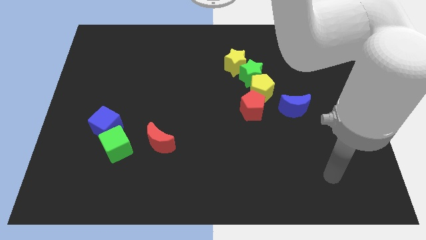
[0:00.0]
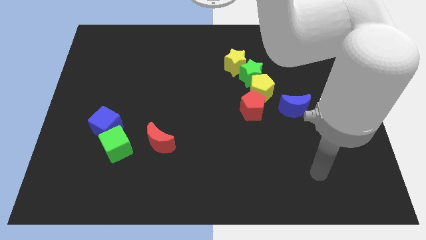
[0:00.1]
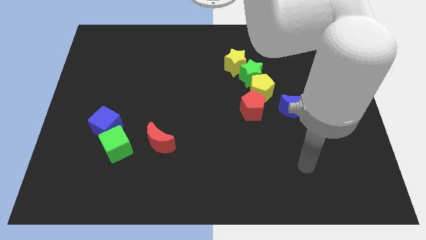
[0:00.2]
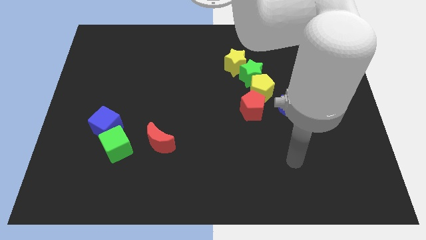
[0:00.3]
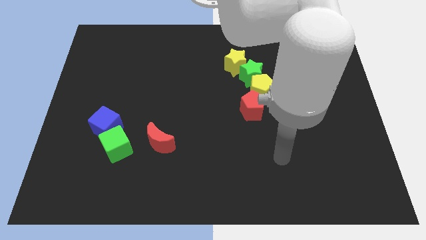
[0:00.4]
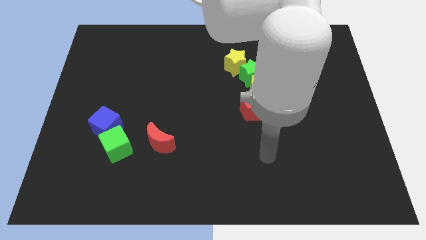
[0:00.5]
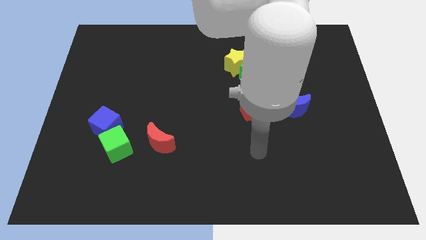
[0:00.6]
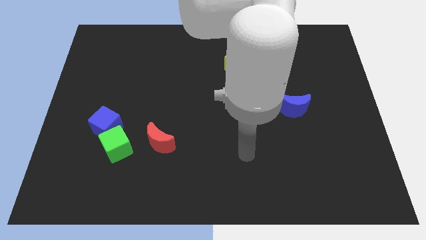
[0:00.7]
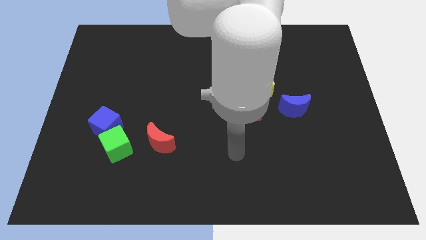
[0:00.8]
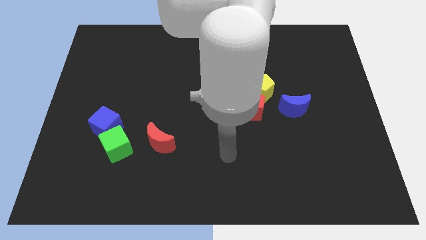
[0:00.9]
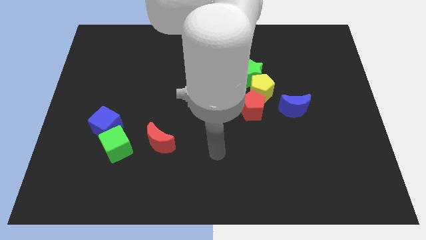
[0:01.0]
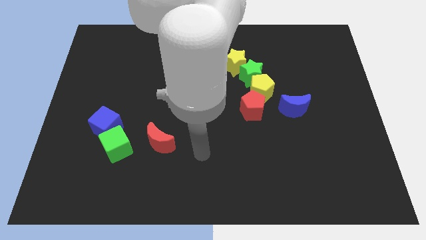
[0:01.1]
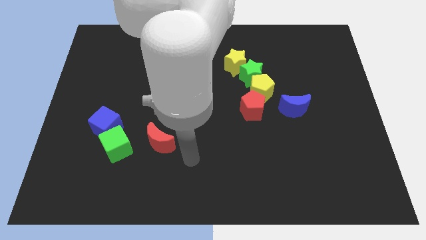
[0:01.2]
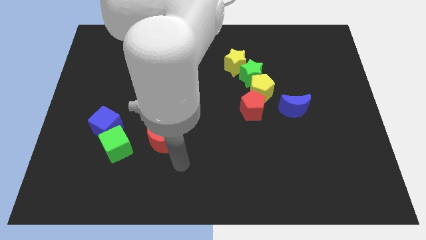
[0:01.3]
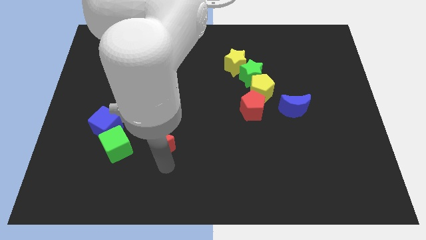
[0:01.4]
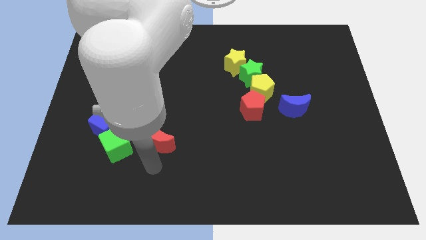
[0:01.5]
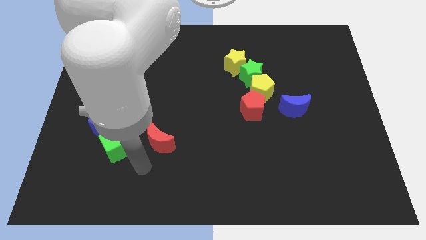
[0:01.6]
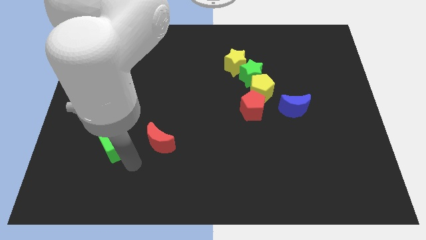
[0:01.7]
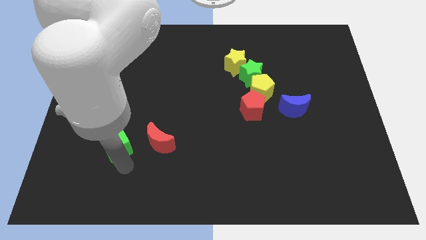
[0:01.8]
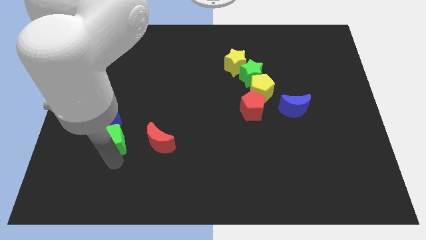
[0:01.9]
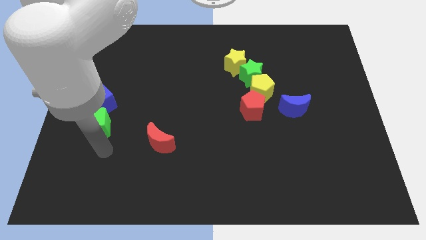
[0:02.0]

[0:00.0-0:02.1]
slightly push the blue cube up

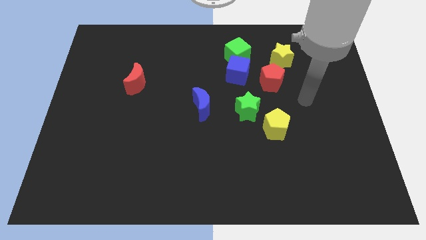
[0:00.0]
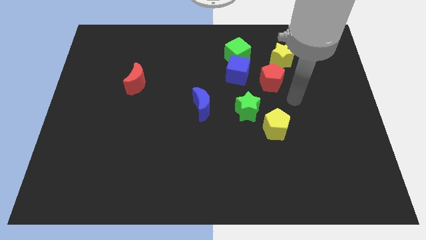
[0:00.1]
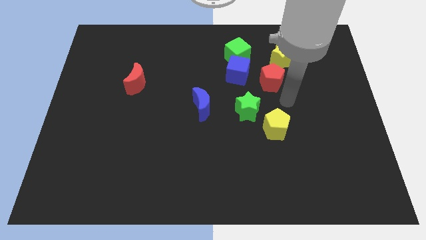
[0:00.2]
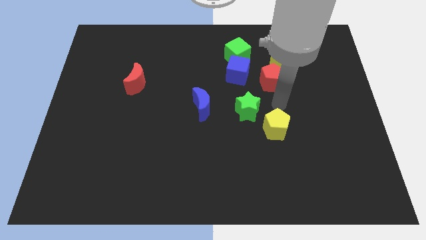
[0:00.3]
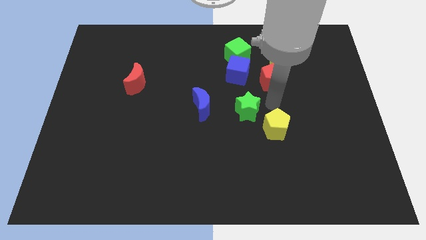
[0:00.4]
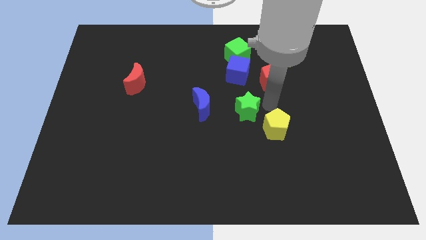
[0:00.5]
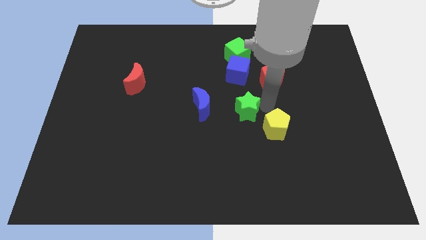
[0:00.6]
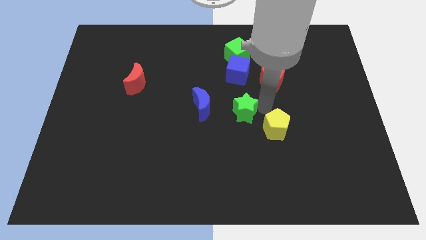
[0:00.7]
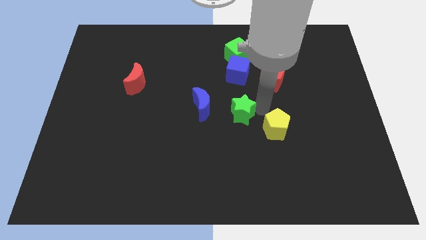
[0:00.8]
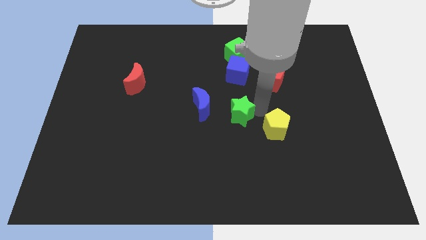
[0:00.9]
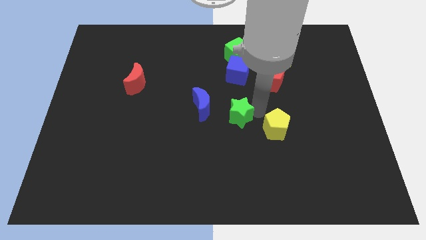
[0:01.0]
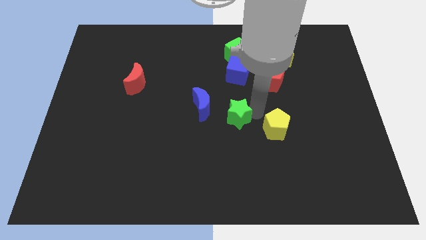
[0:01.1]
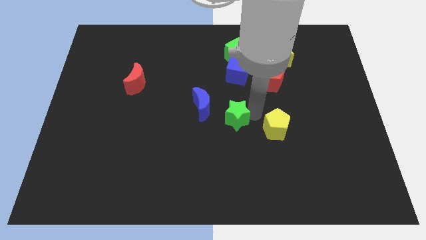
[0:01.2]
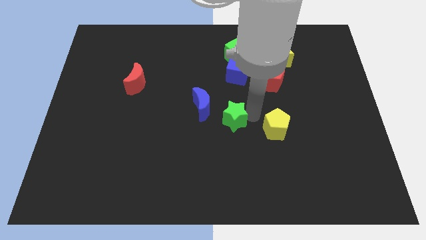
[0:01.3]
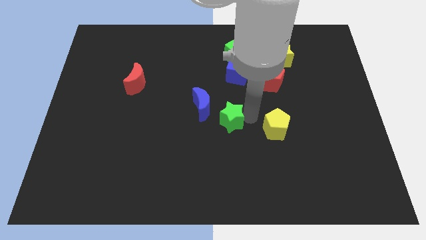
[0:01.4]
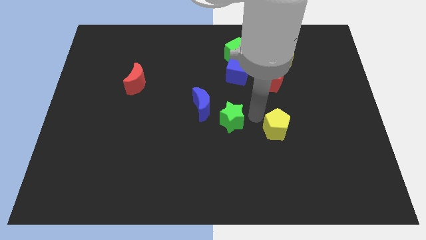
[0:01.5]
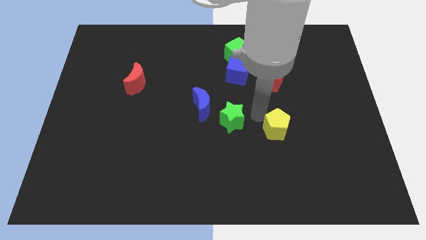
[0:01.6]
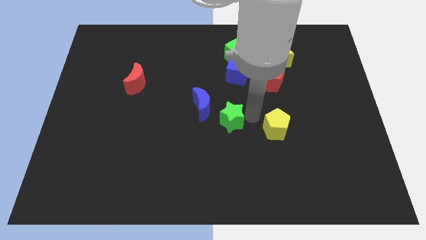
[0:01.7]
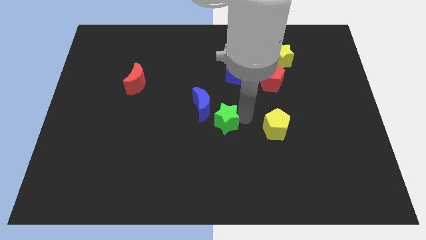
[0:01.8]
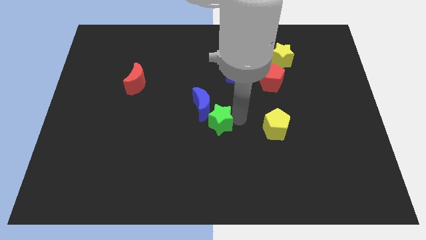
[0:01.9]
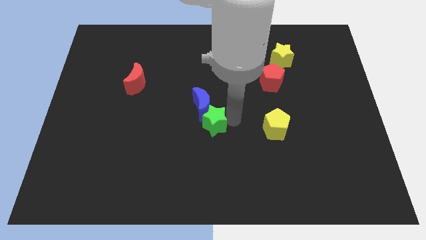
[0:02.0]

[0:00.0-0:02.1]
move the green star to the left a little

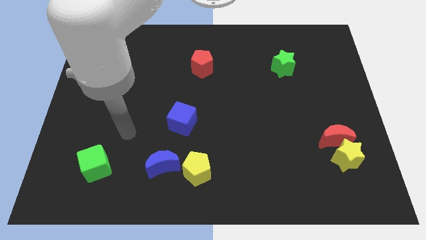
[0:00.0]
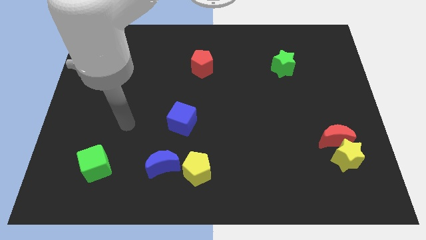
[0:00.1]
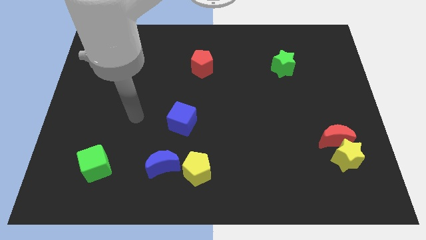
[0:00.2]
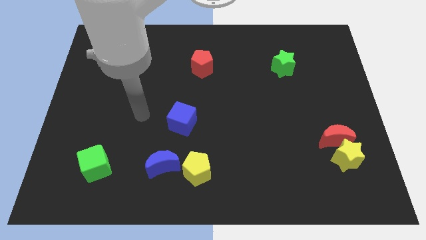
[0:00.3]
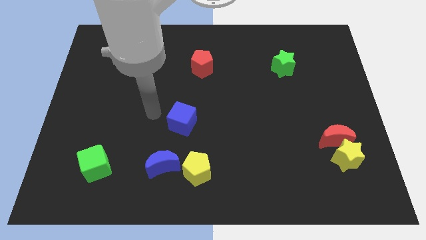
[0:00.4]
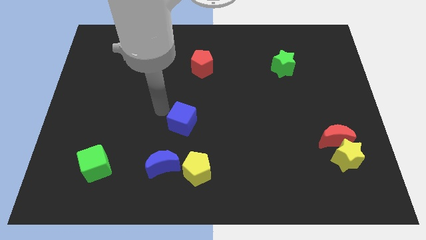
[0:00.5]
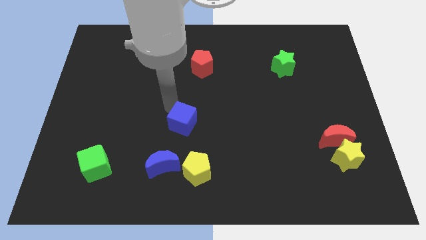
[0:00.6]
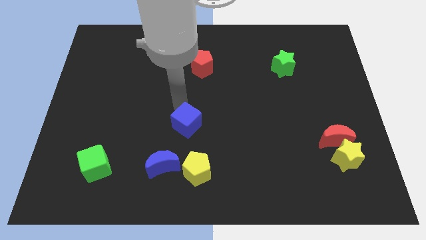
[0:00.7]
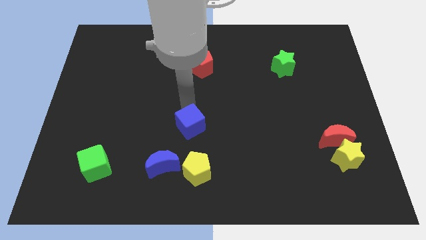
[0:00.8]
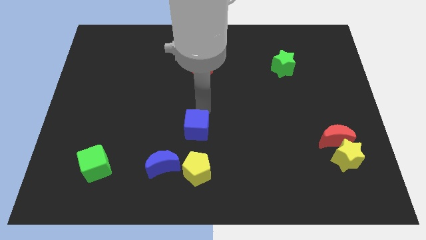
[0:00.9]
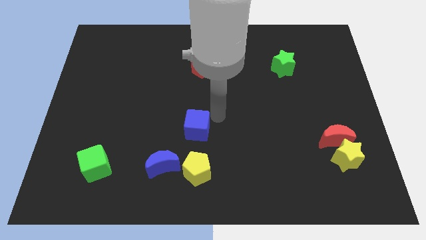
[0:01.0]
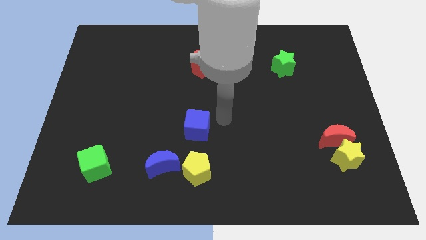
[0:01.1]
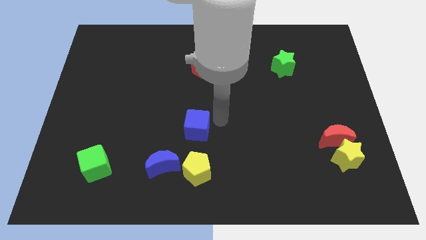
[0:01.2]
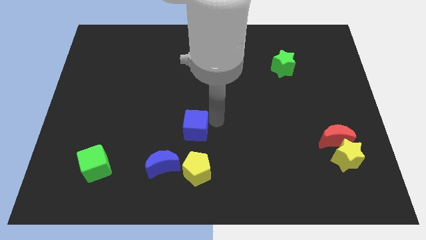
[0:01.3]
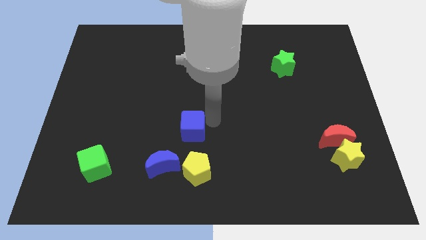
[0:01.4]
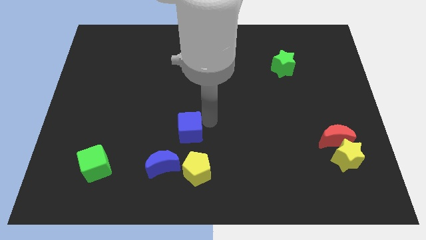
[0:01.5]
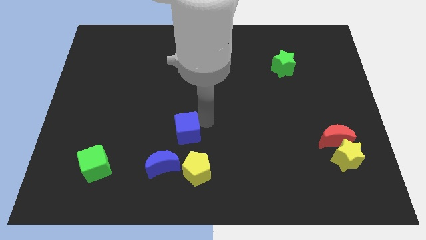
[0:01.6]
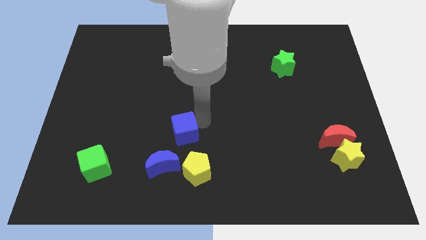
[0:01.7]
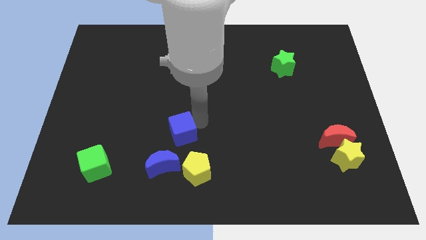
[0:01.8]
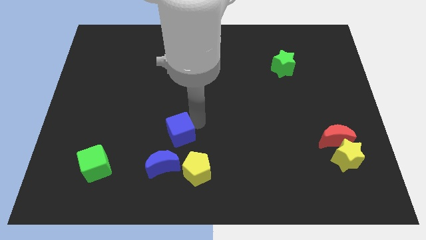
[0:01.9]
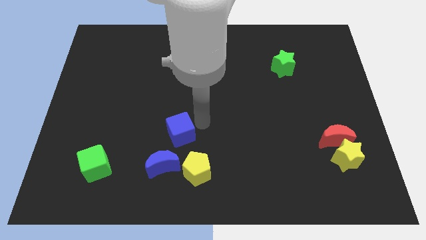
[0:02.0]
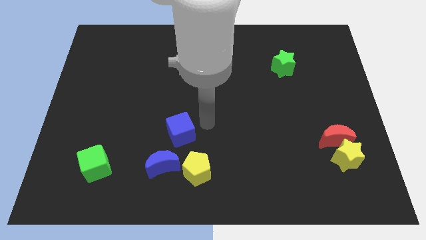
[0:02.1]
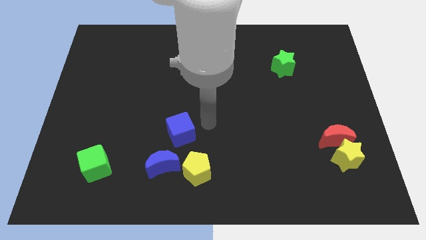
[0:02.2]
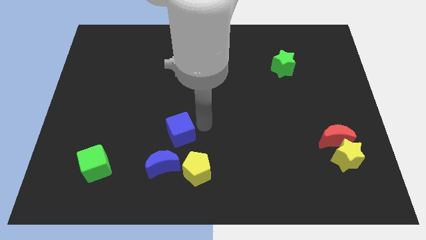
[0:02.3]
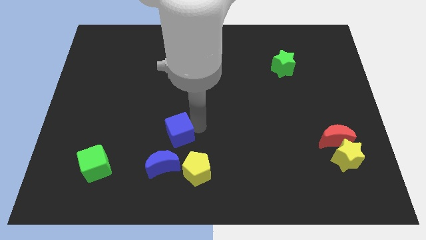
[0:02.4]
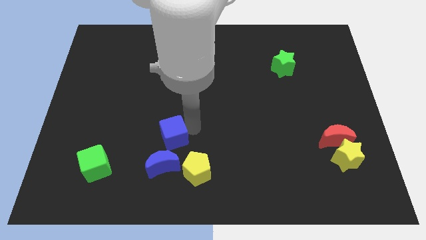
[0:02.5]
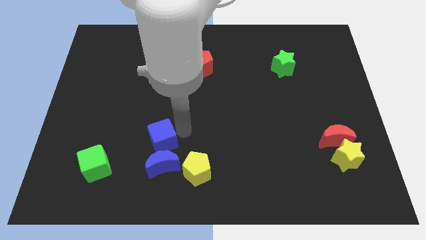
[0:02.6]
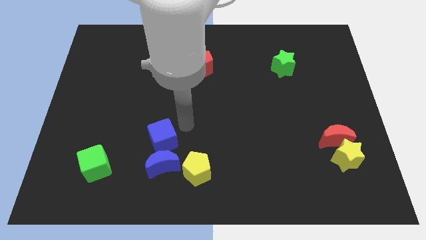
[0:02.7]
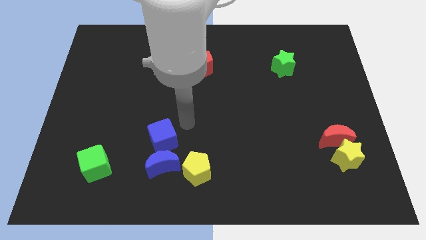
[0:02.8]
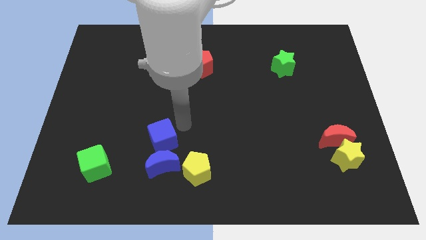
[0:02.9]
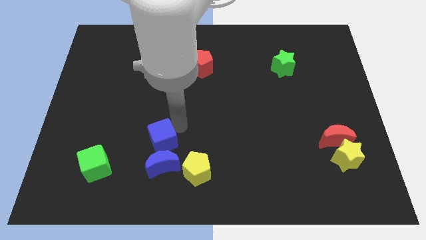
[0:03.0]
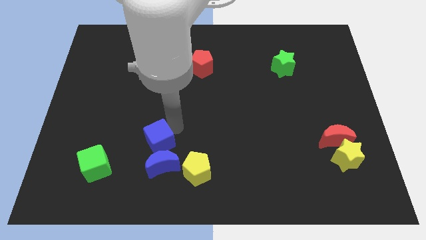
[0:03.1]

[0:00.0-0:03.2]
push the blue cube slightly down and then to the left

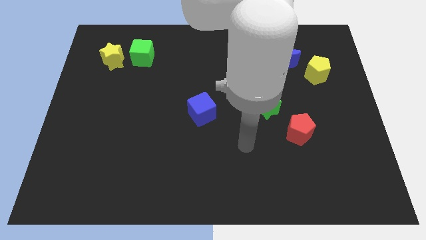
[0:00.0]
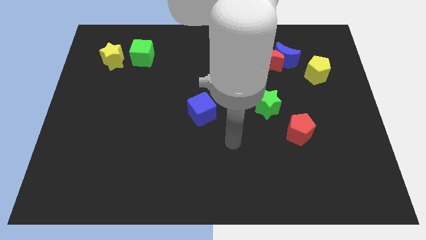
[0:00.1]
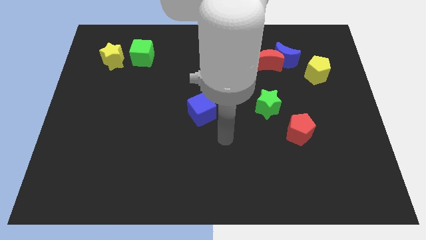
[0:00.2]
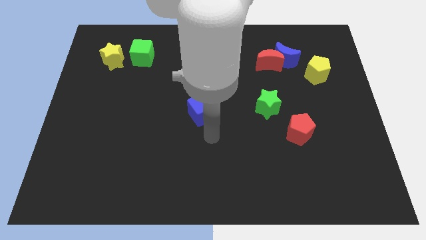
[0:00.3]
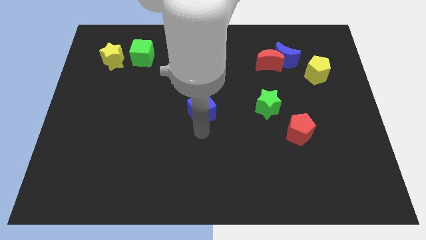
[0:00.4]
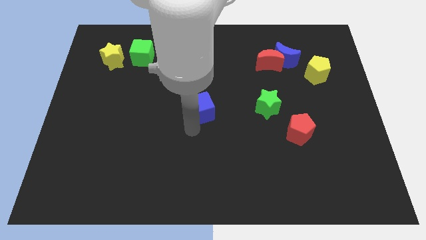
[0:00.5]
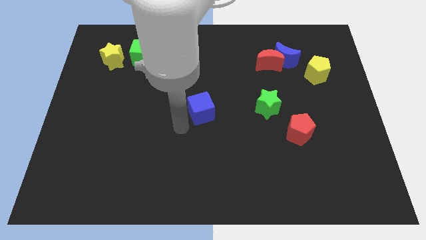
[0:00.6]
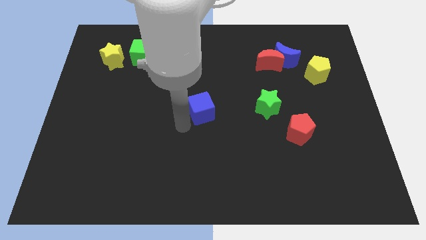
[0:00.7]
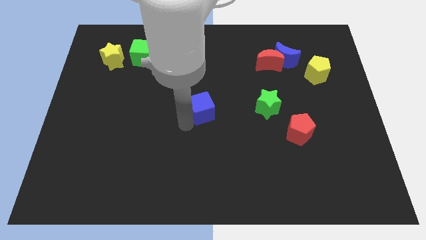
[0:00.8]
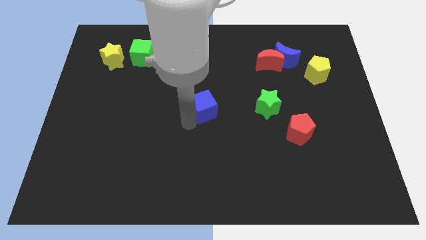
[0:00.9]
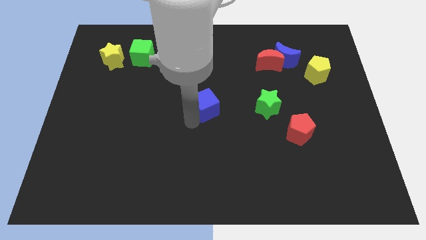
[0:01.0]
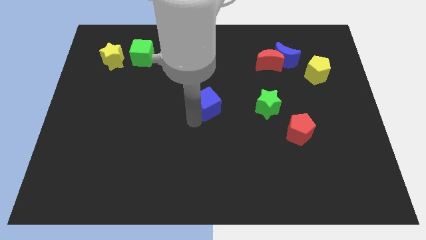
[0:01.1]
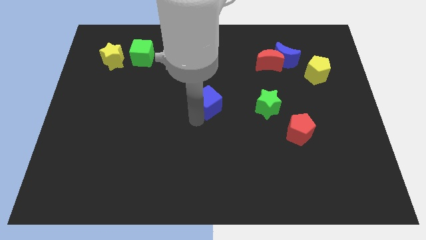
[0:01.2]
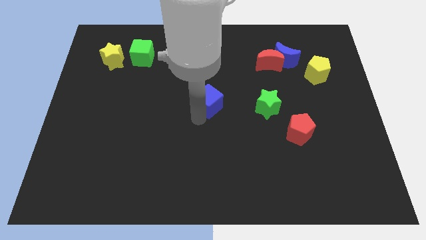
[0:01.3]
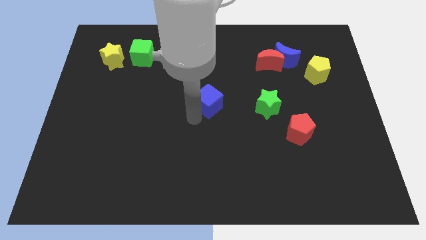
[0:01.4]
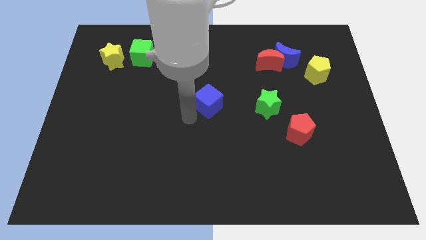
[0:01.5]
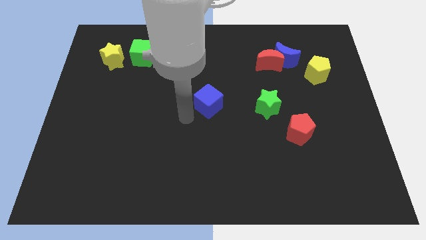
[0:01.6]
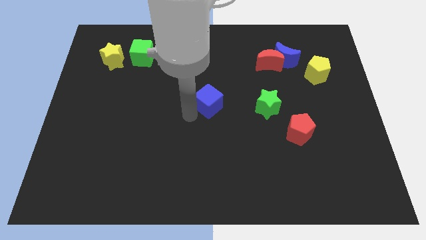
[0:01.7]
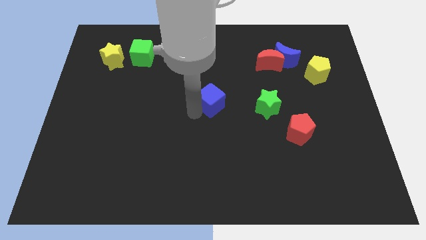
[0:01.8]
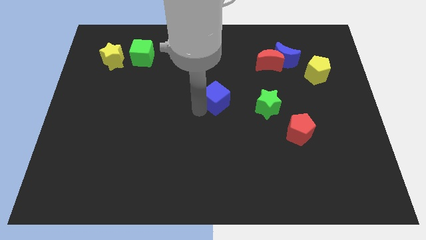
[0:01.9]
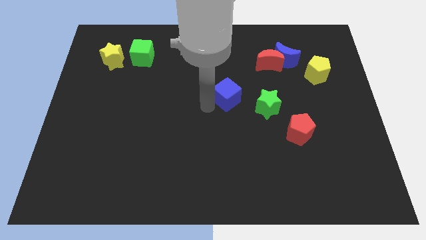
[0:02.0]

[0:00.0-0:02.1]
slightly slide the blue cube up and to the right diagonally
